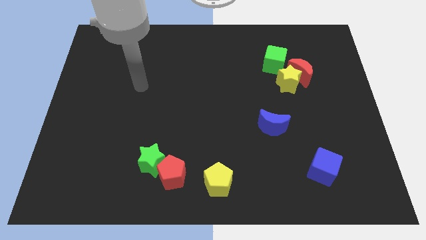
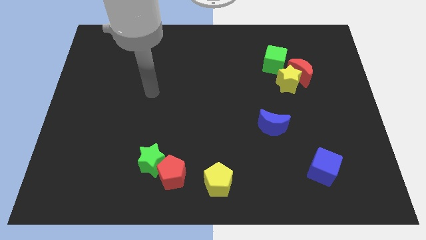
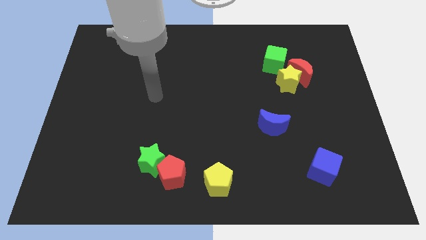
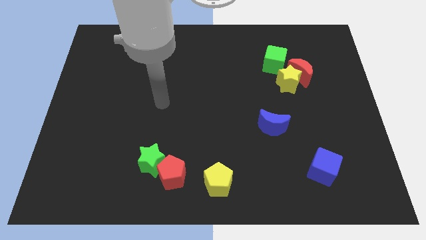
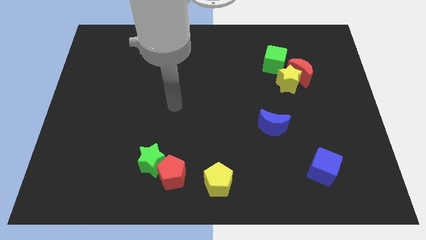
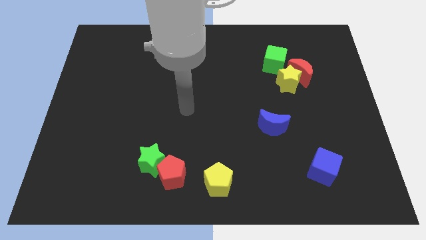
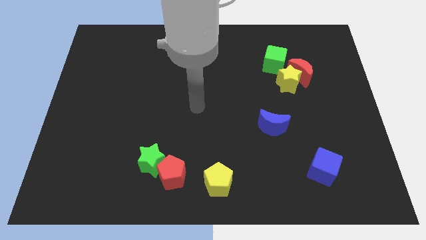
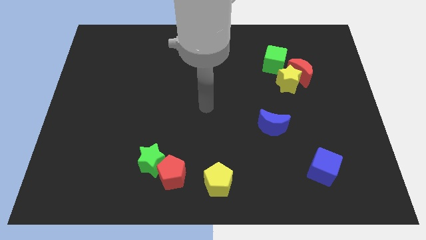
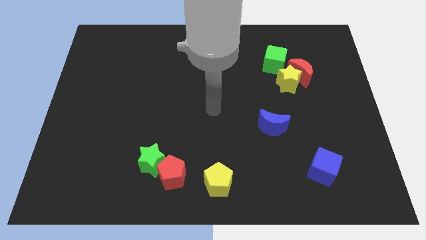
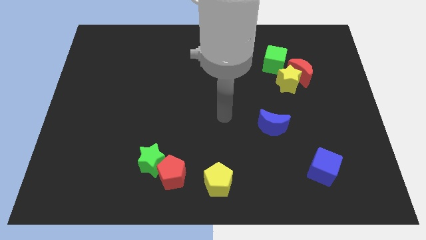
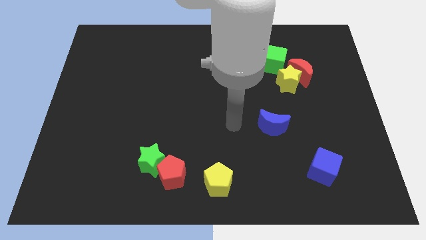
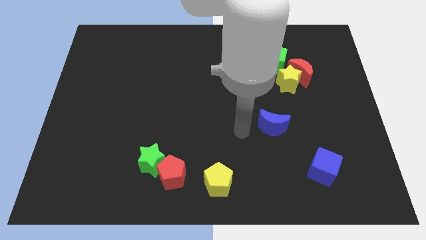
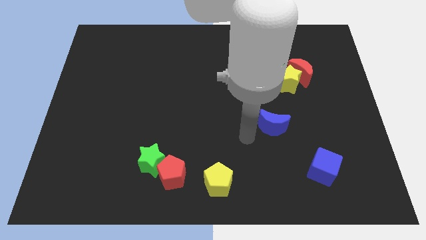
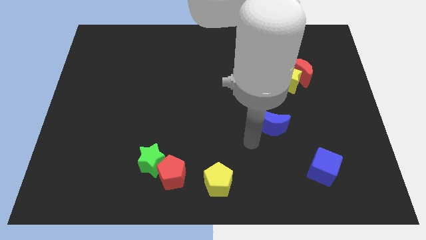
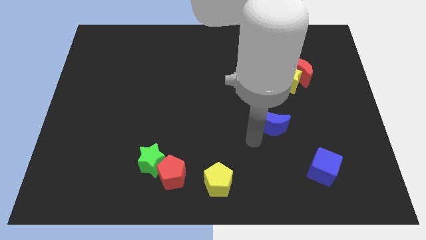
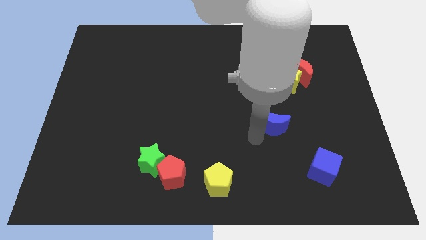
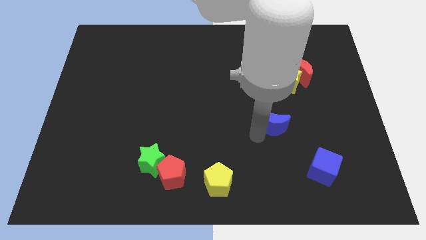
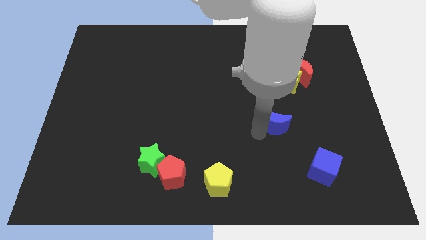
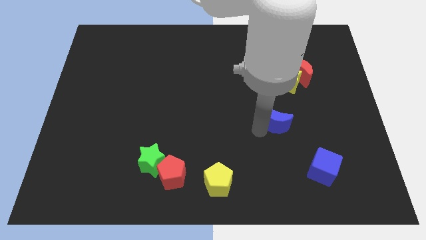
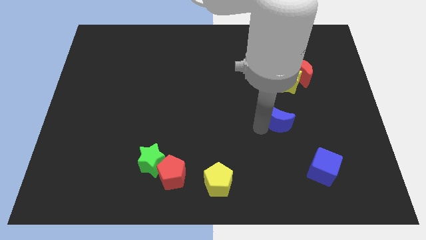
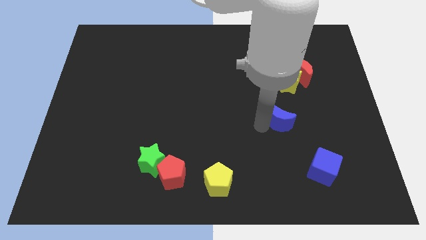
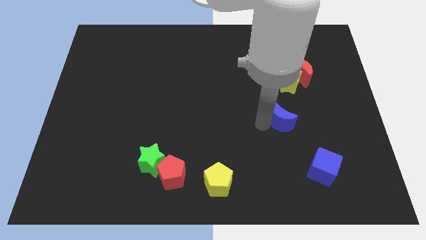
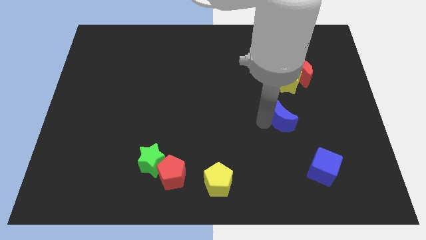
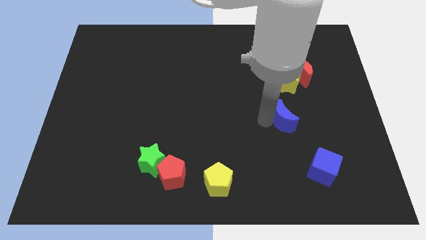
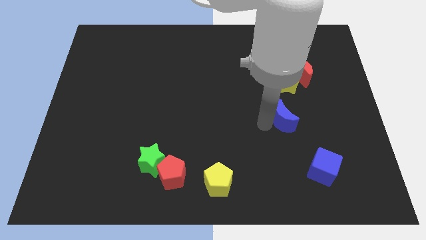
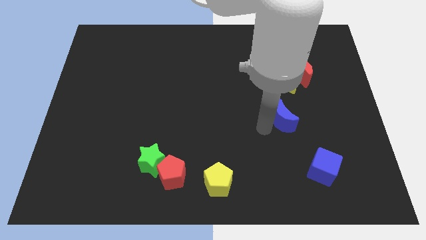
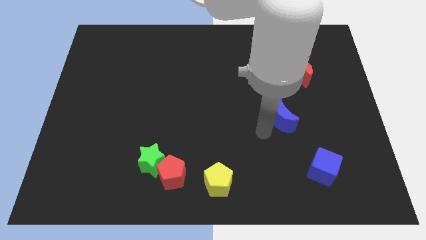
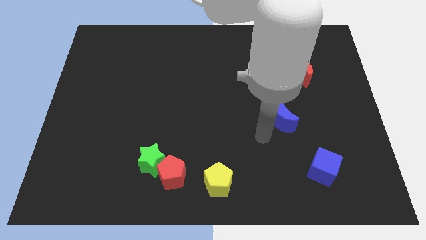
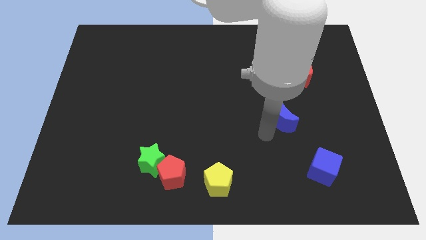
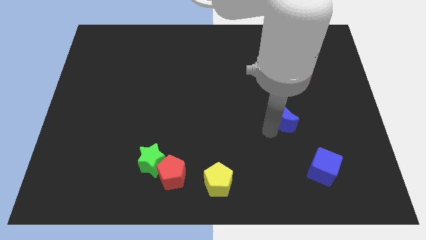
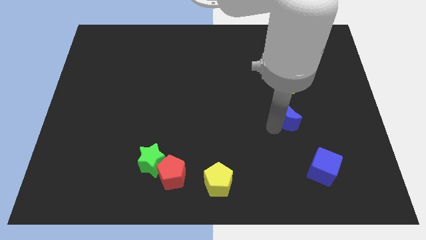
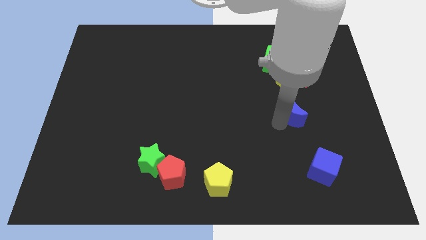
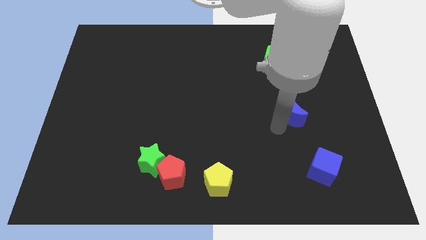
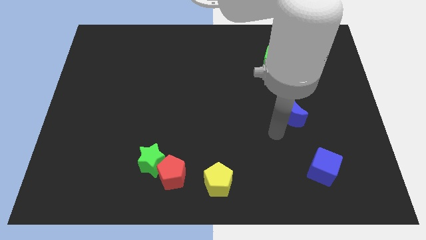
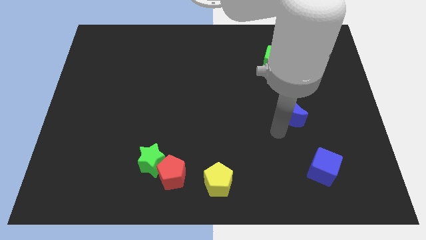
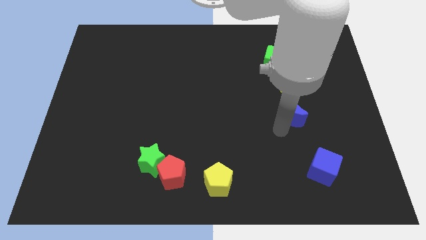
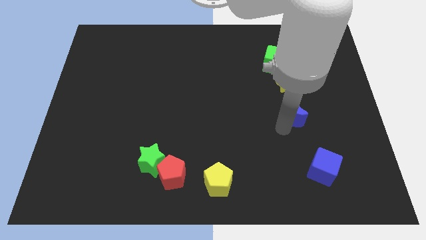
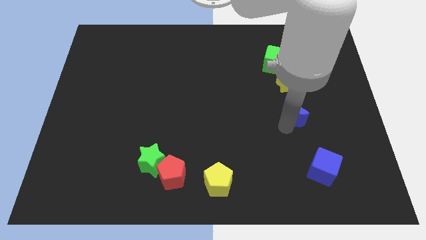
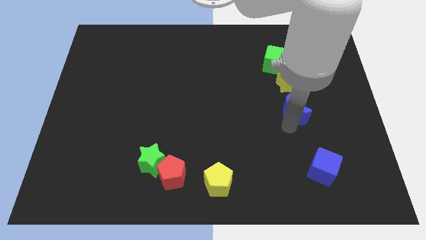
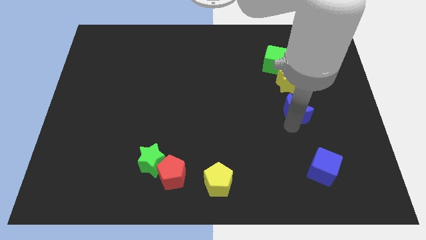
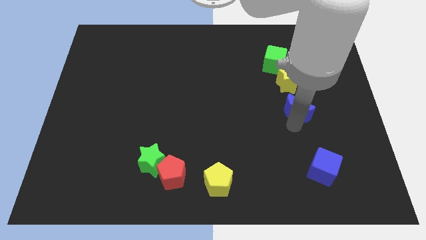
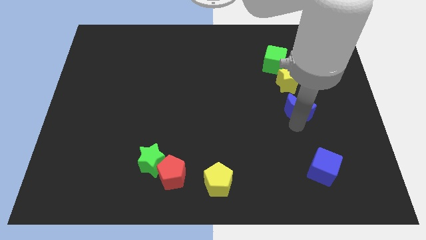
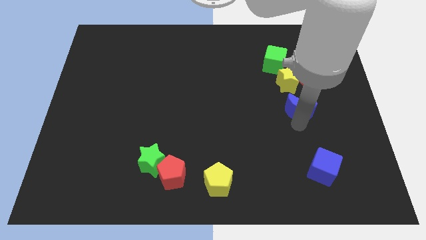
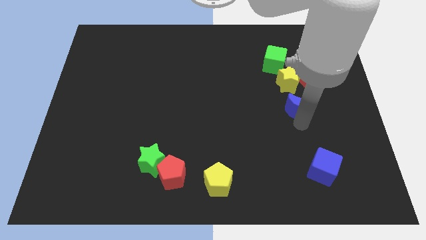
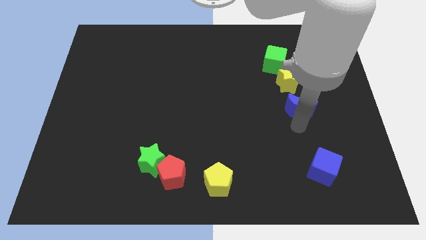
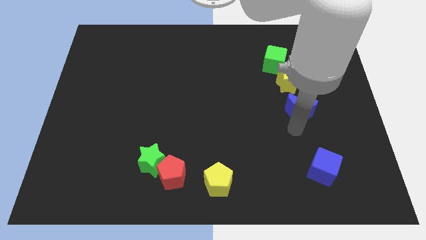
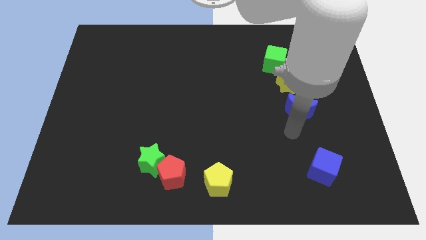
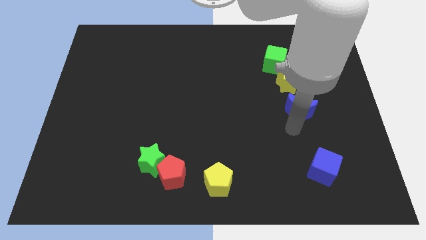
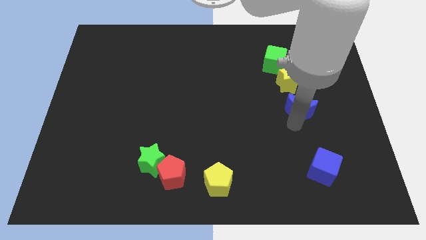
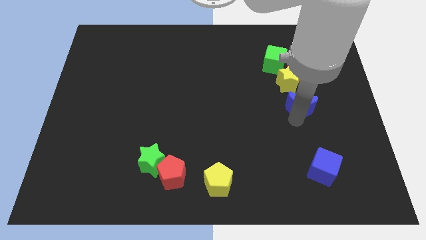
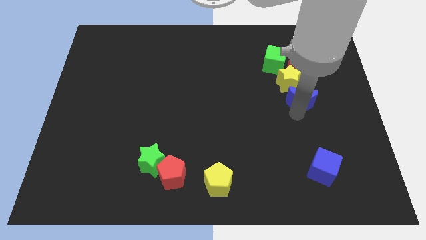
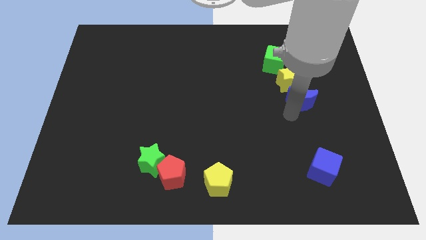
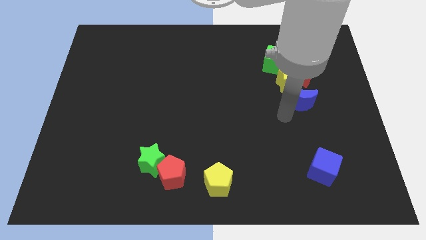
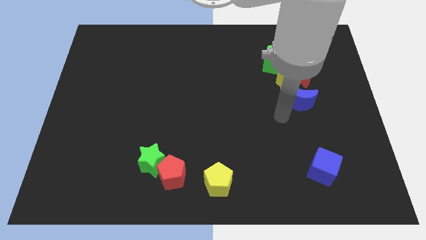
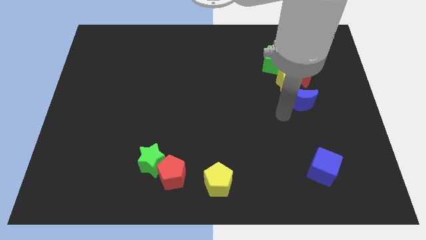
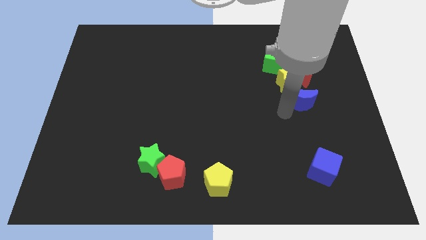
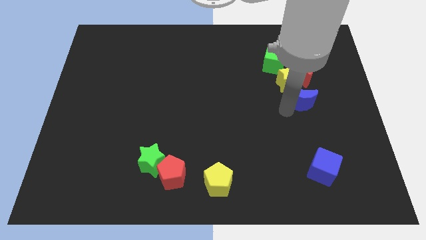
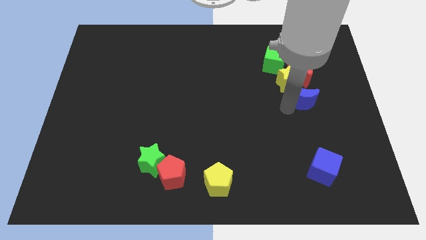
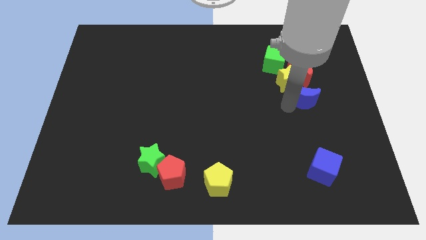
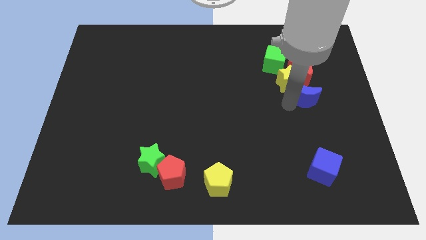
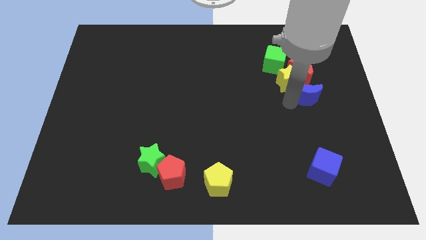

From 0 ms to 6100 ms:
put the blue moon just right of the yellow star
